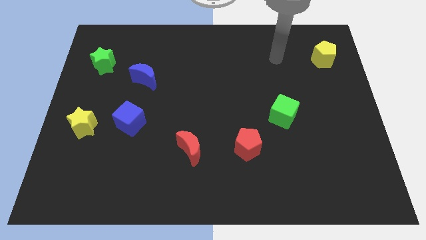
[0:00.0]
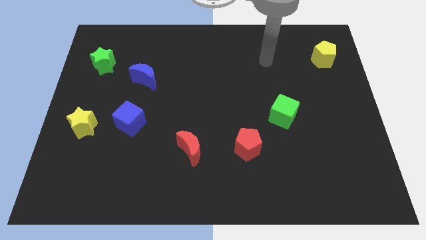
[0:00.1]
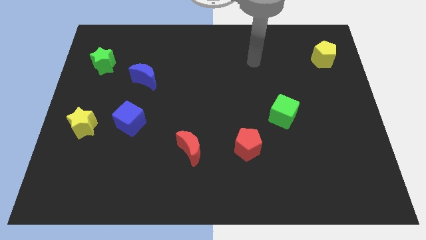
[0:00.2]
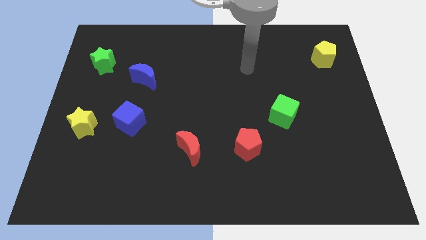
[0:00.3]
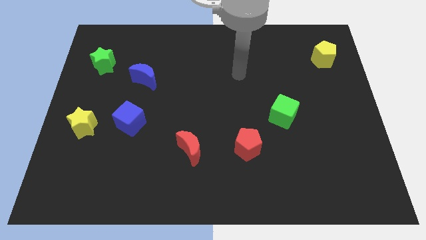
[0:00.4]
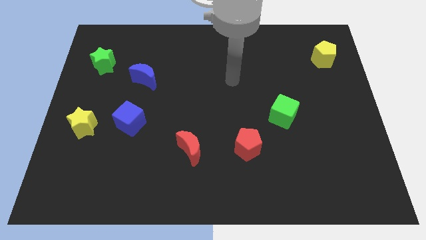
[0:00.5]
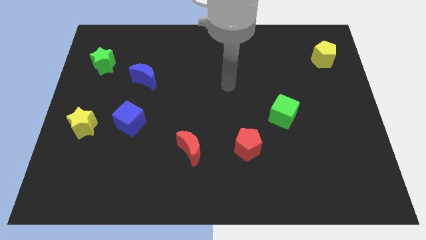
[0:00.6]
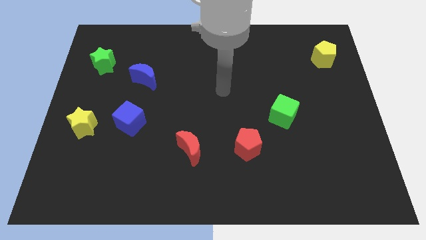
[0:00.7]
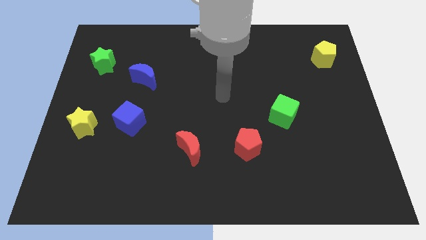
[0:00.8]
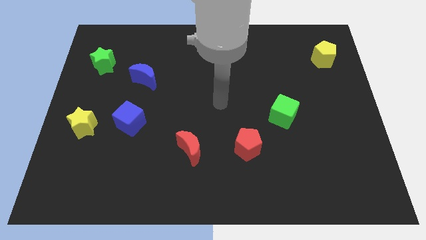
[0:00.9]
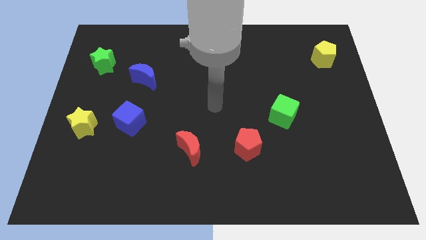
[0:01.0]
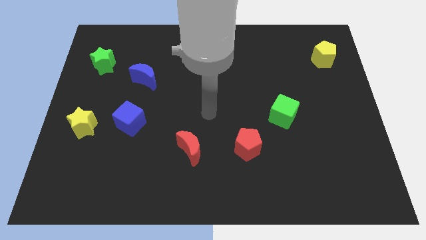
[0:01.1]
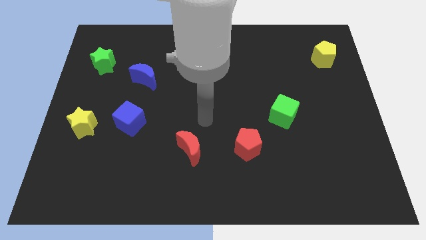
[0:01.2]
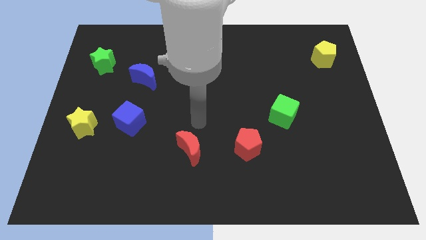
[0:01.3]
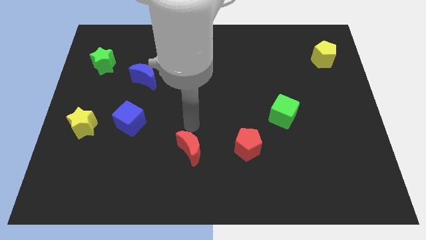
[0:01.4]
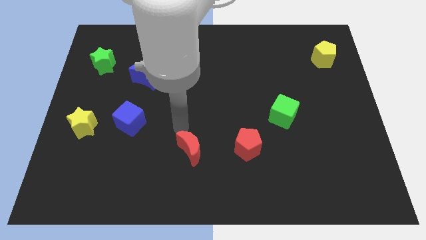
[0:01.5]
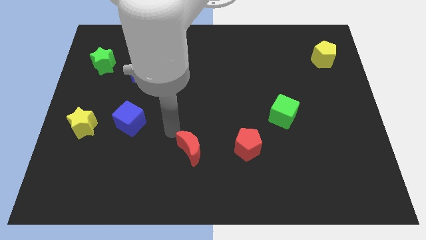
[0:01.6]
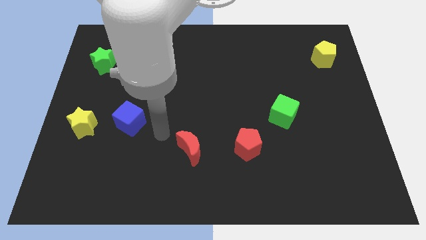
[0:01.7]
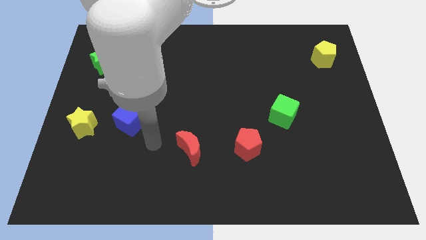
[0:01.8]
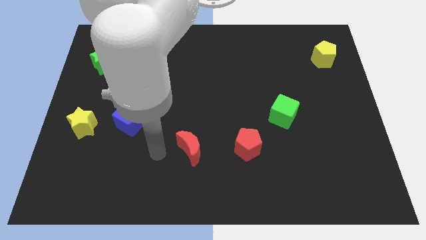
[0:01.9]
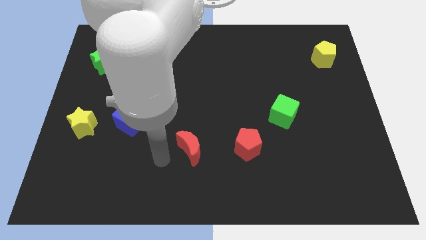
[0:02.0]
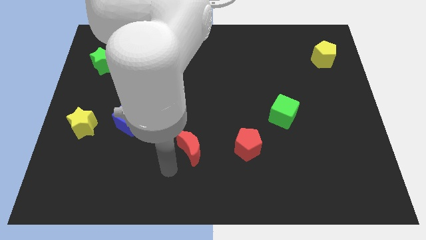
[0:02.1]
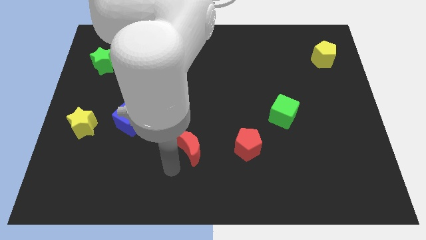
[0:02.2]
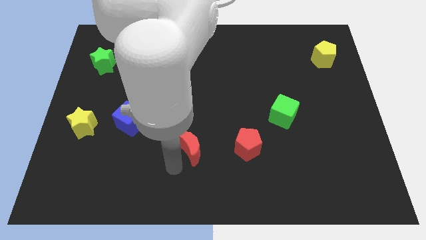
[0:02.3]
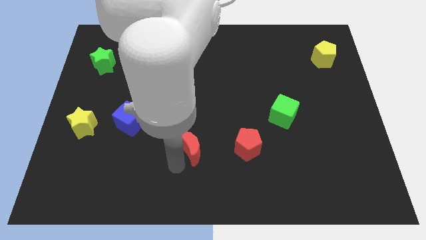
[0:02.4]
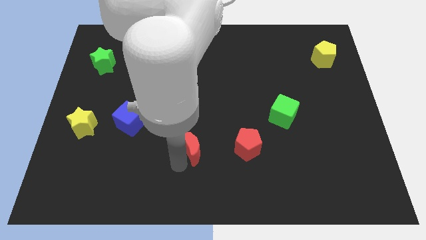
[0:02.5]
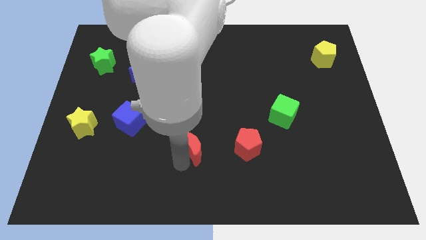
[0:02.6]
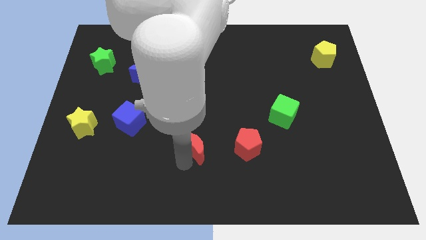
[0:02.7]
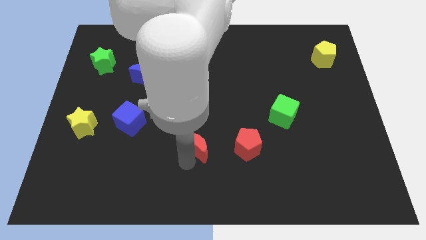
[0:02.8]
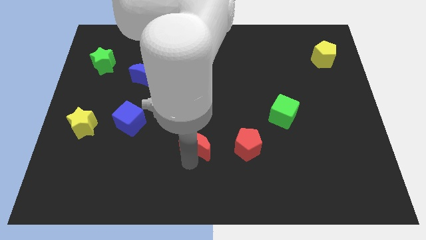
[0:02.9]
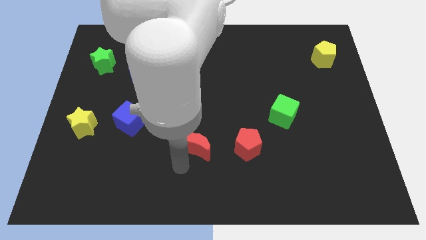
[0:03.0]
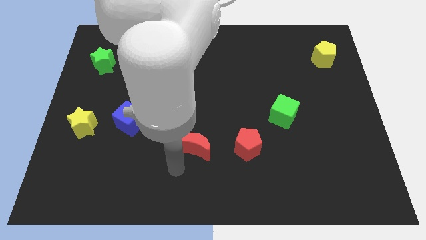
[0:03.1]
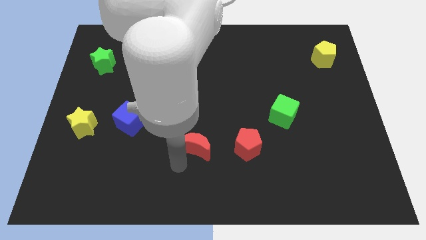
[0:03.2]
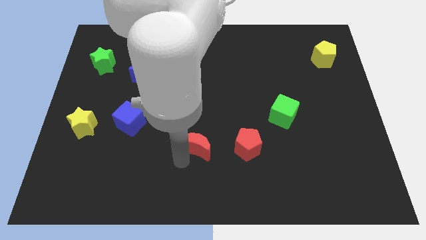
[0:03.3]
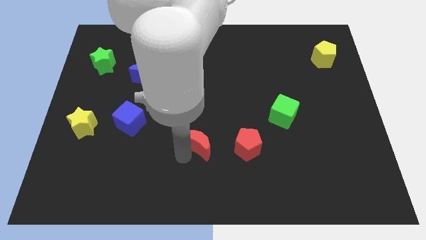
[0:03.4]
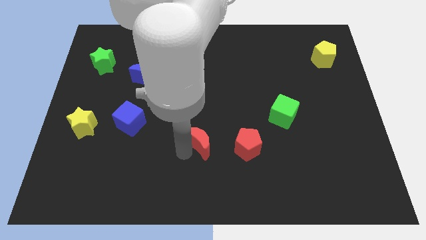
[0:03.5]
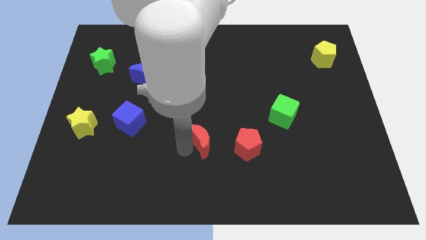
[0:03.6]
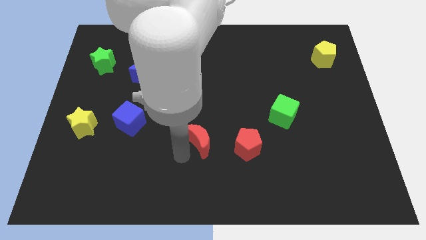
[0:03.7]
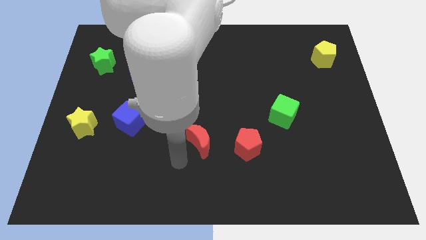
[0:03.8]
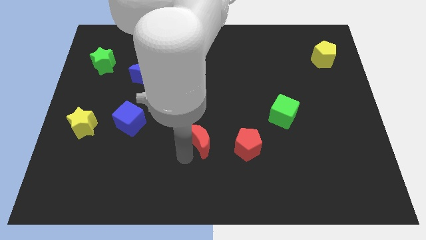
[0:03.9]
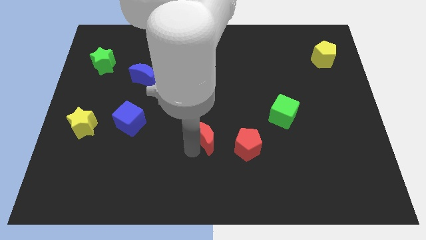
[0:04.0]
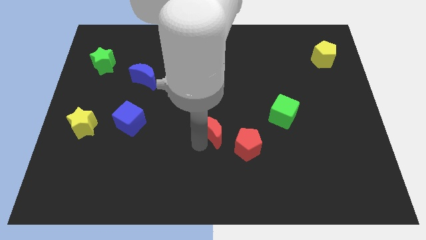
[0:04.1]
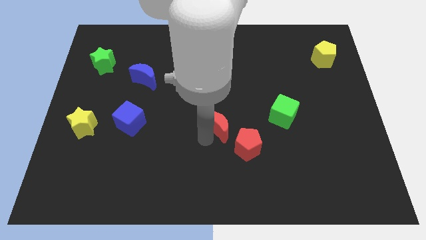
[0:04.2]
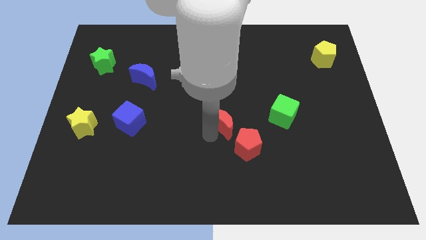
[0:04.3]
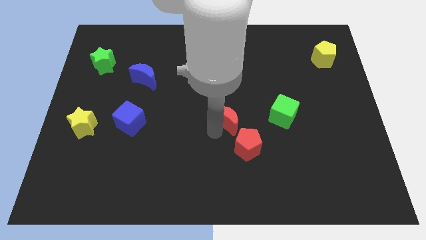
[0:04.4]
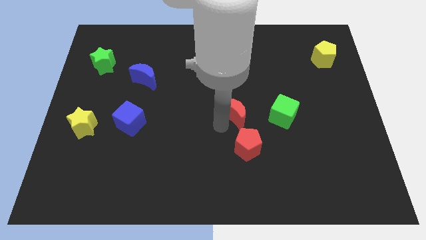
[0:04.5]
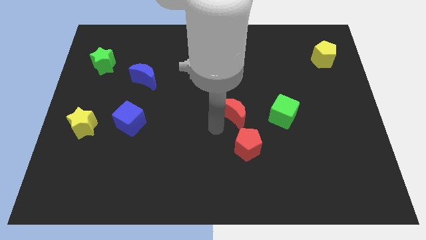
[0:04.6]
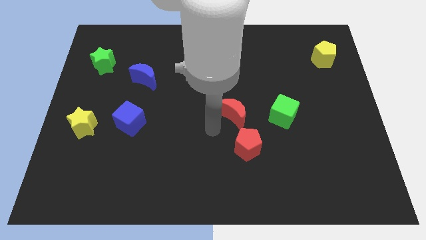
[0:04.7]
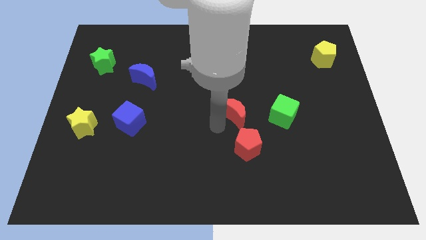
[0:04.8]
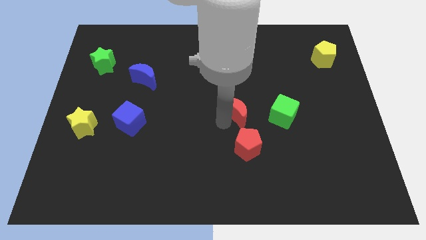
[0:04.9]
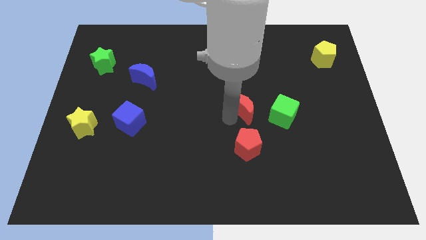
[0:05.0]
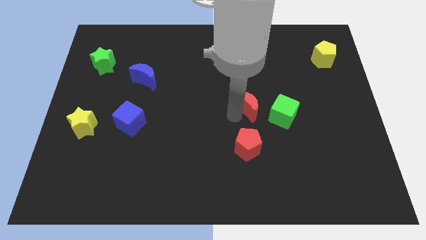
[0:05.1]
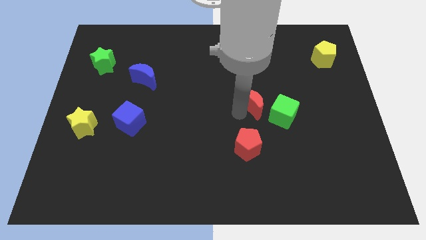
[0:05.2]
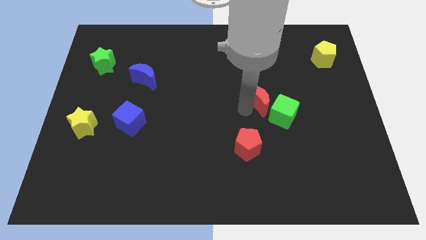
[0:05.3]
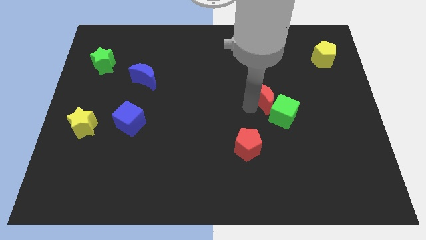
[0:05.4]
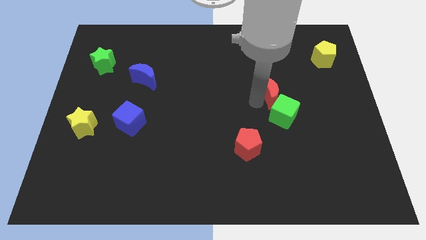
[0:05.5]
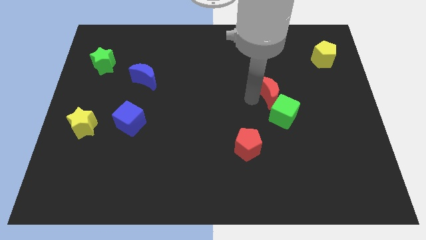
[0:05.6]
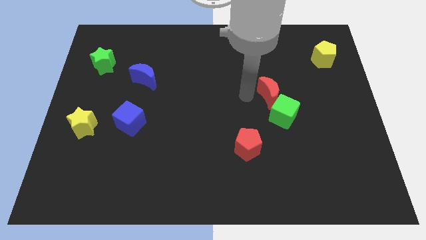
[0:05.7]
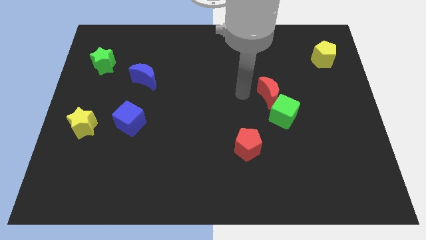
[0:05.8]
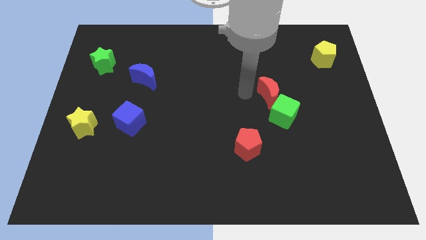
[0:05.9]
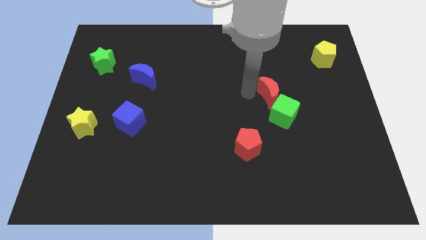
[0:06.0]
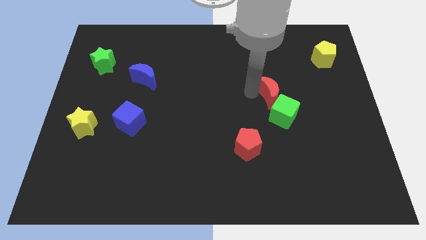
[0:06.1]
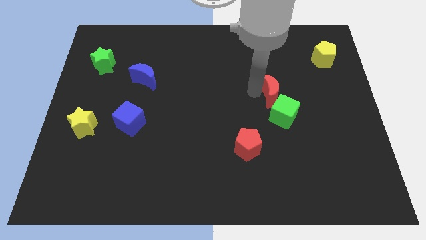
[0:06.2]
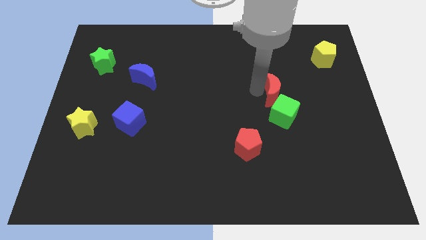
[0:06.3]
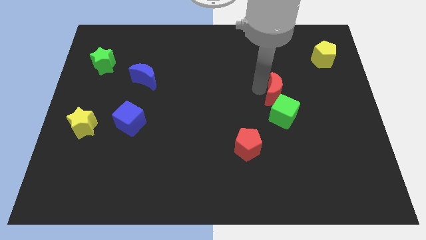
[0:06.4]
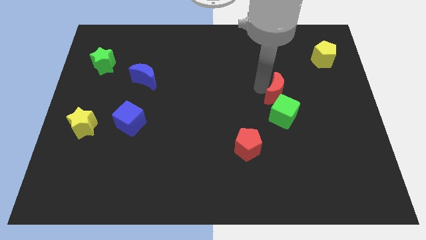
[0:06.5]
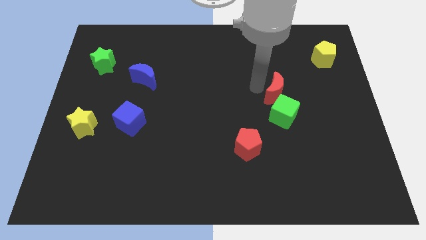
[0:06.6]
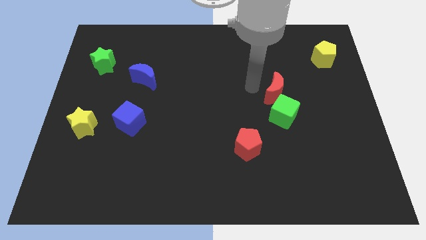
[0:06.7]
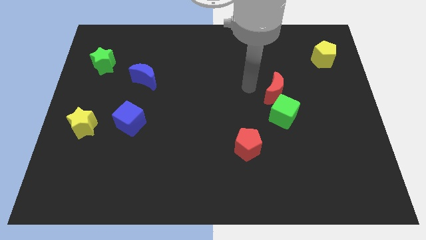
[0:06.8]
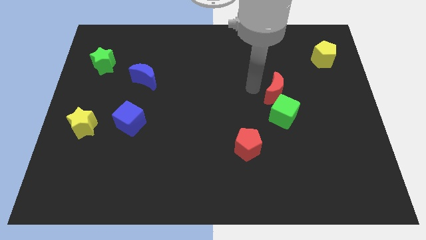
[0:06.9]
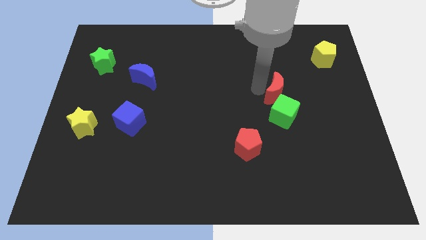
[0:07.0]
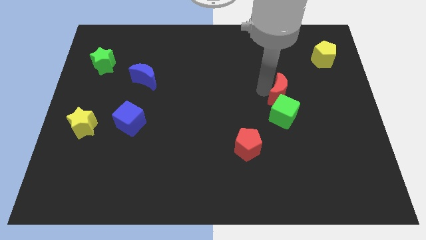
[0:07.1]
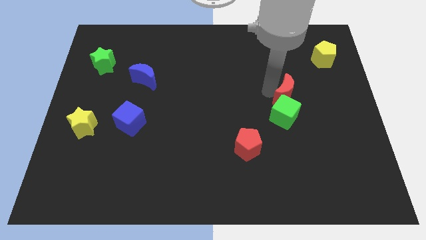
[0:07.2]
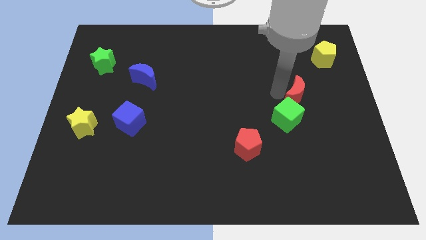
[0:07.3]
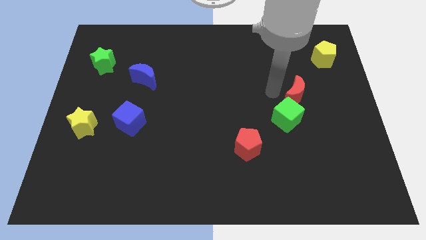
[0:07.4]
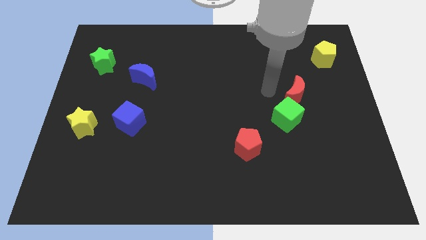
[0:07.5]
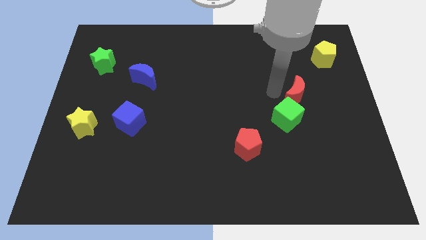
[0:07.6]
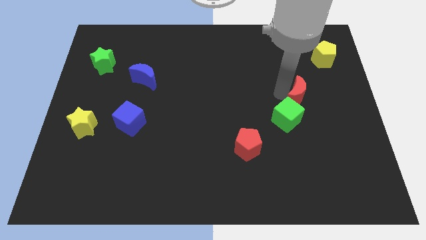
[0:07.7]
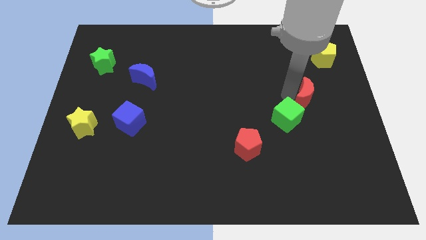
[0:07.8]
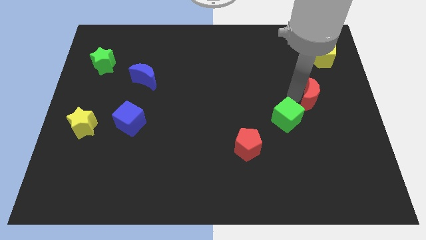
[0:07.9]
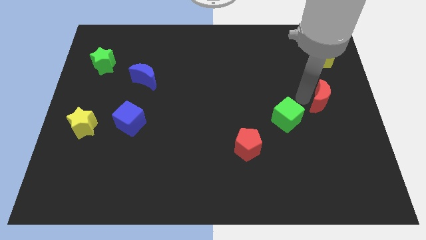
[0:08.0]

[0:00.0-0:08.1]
push the red moon to the right side
